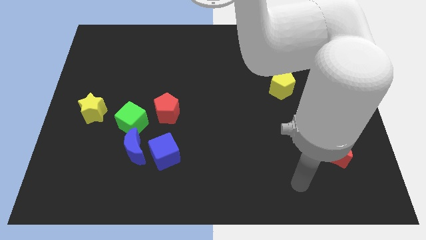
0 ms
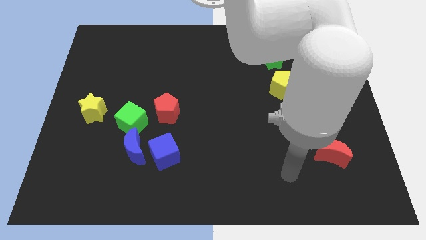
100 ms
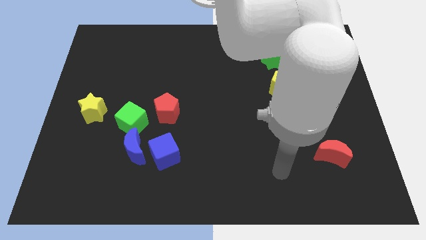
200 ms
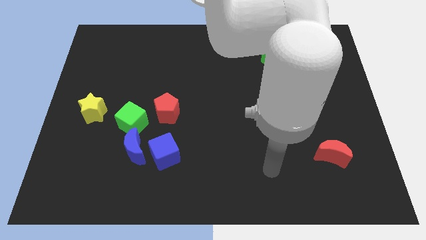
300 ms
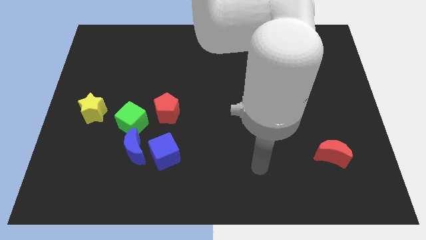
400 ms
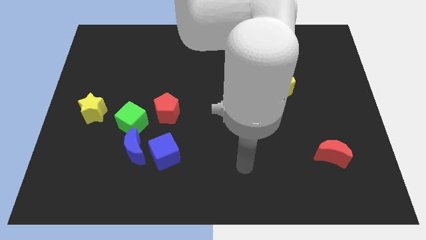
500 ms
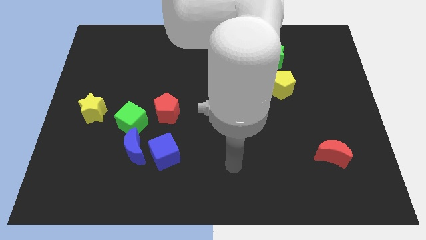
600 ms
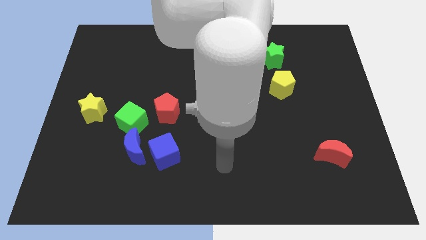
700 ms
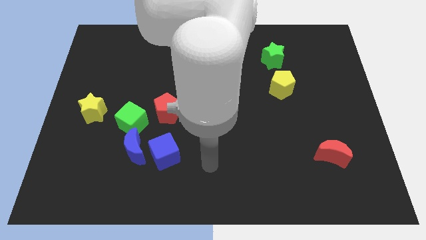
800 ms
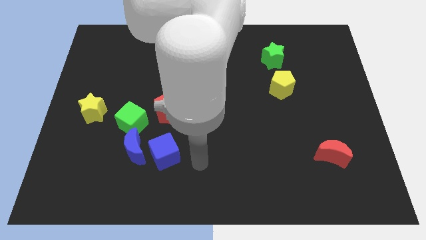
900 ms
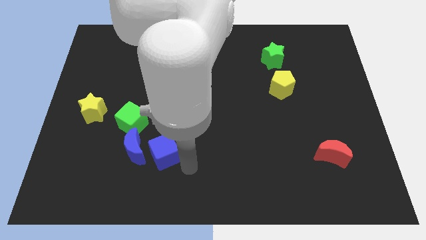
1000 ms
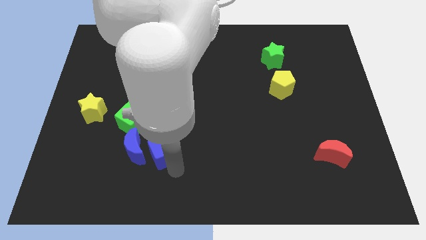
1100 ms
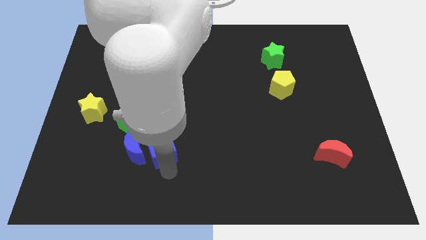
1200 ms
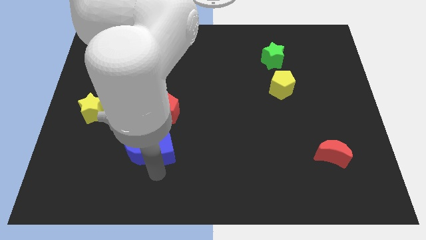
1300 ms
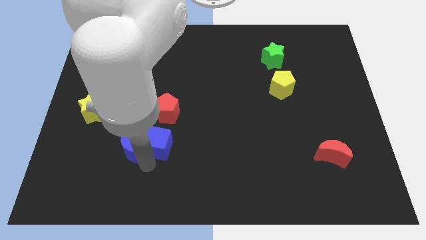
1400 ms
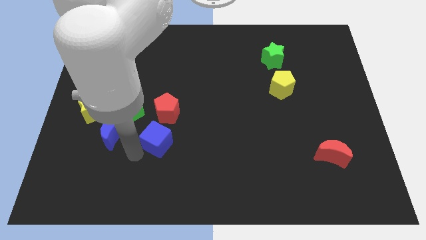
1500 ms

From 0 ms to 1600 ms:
separate the blue cube from the blue moon

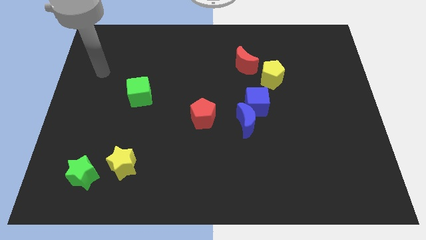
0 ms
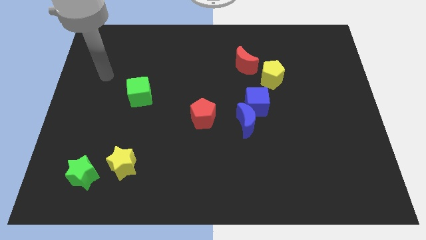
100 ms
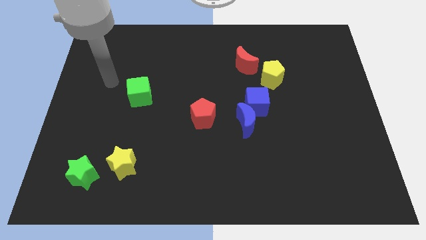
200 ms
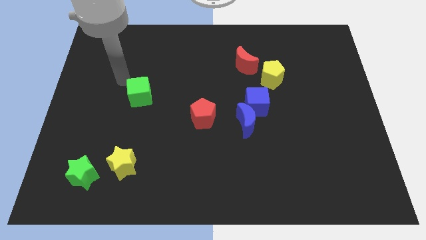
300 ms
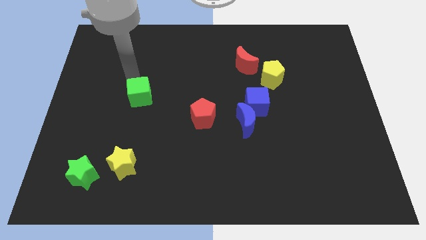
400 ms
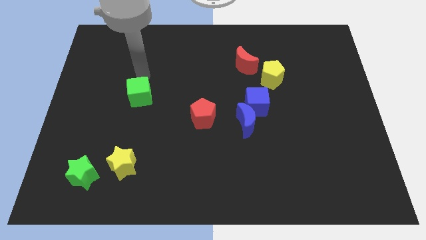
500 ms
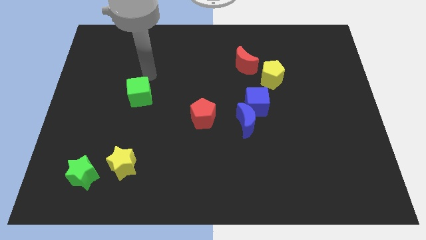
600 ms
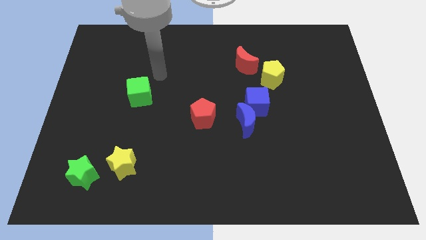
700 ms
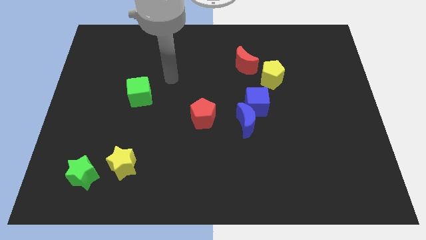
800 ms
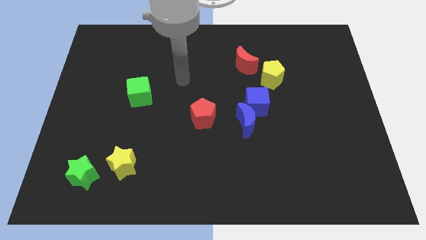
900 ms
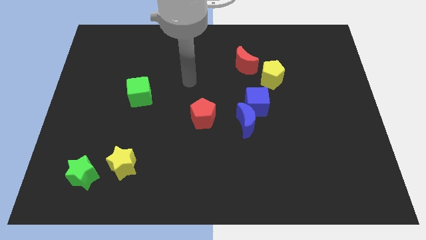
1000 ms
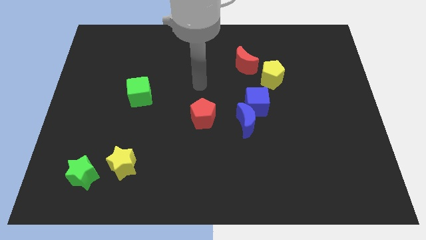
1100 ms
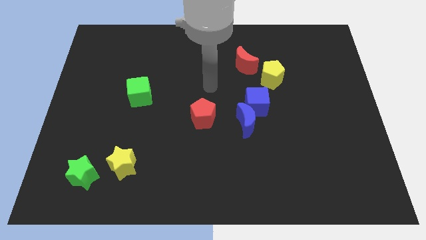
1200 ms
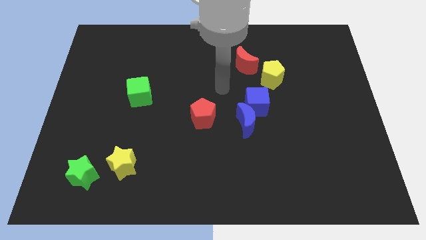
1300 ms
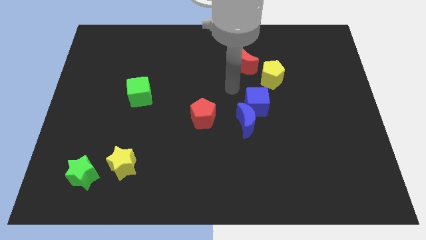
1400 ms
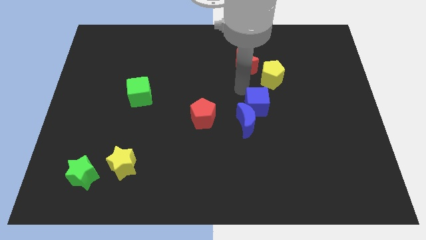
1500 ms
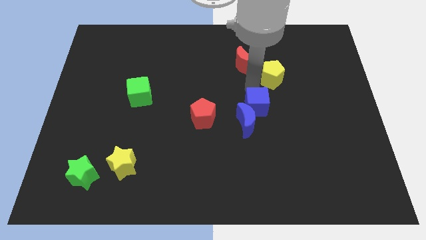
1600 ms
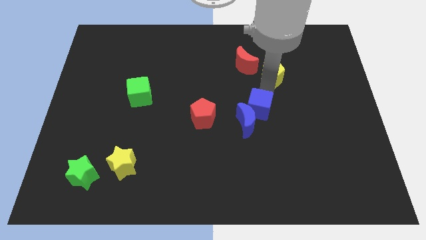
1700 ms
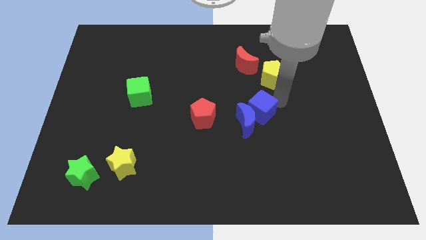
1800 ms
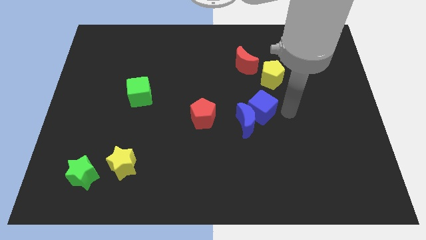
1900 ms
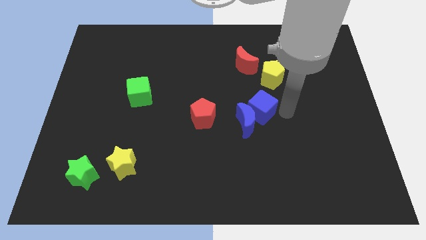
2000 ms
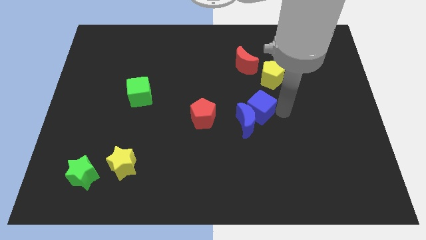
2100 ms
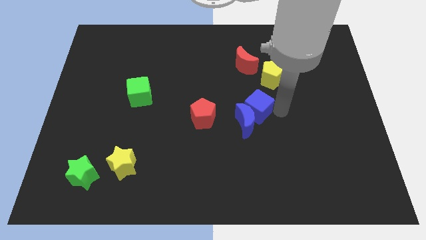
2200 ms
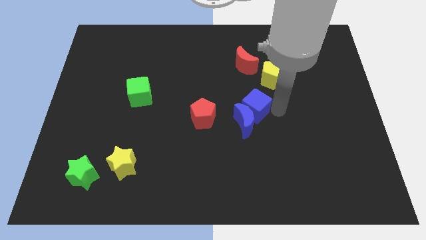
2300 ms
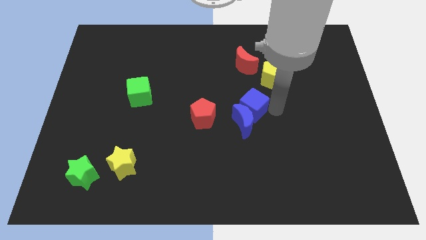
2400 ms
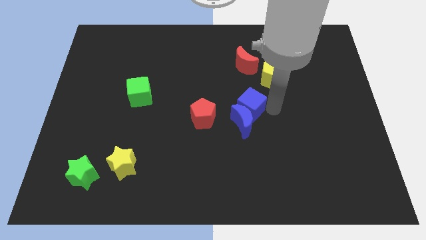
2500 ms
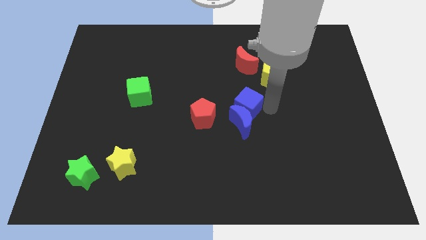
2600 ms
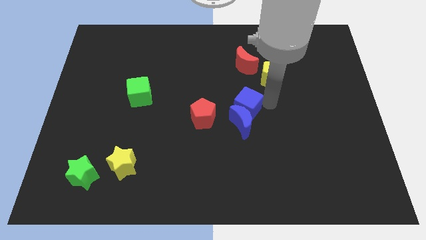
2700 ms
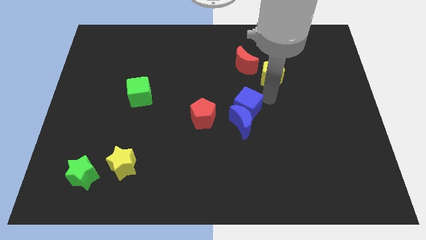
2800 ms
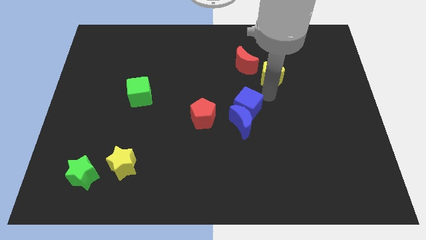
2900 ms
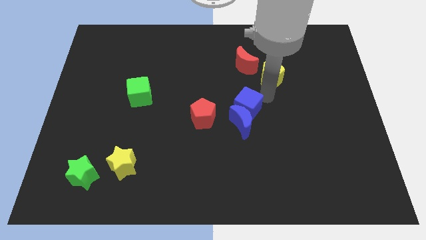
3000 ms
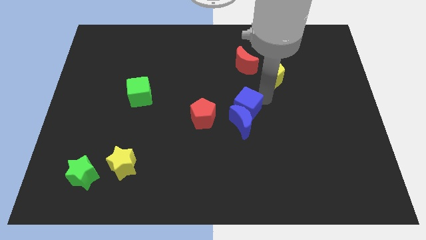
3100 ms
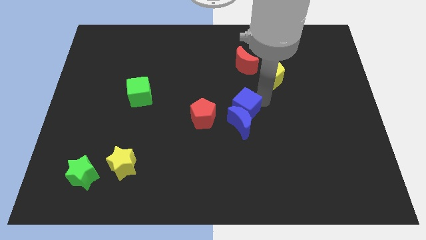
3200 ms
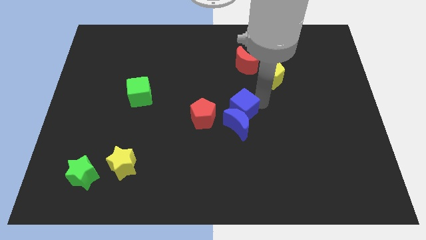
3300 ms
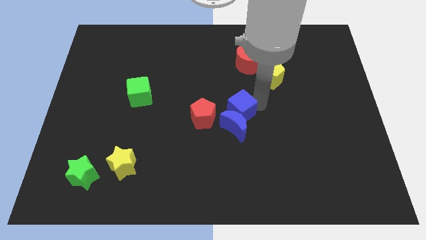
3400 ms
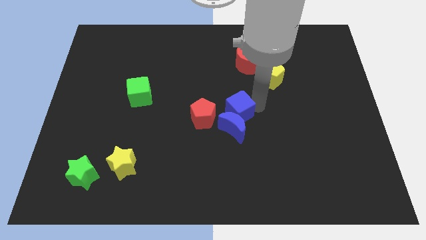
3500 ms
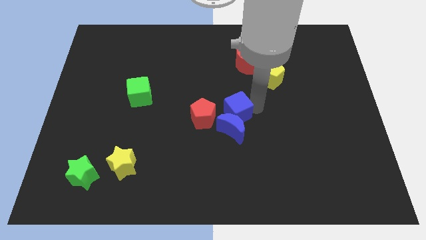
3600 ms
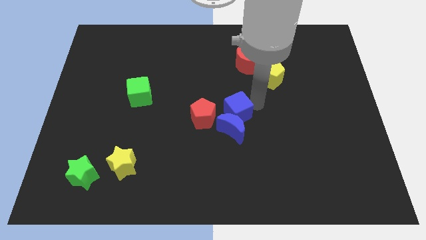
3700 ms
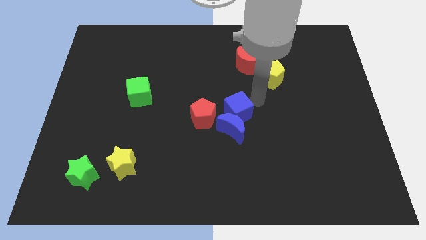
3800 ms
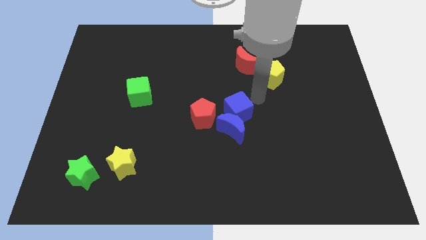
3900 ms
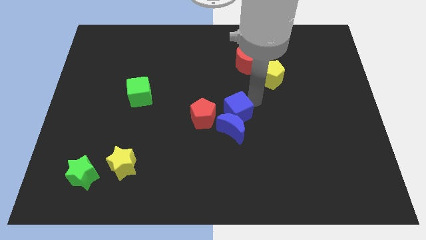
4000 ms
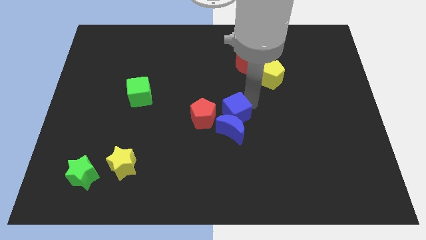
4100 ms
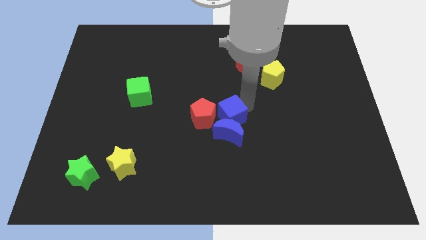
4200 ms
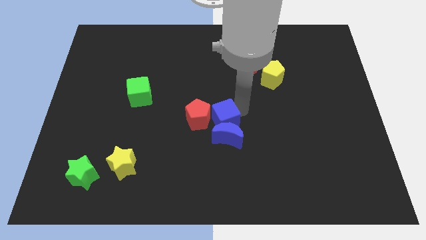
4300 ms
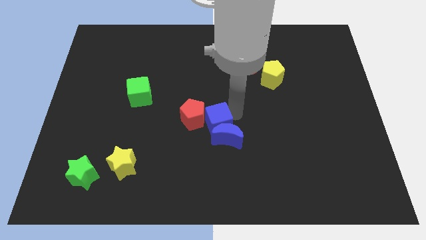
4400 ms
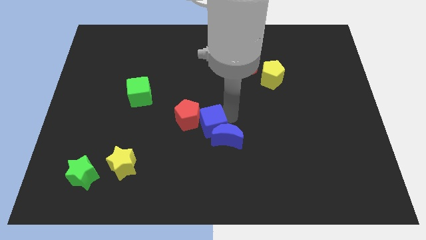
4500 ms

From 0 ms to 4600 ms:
pull the blue cube apart from the blue moon and yellow pentagon

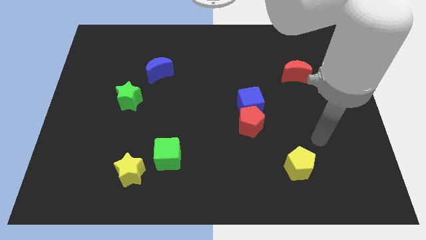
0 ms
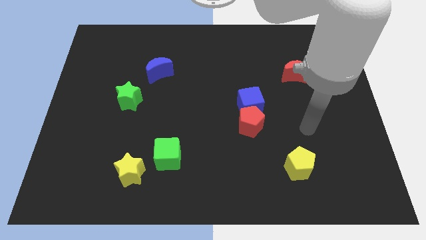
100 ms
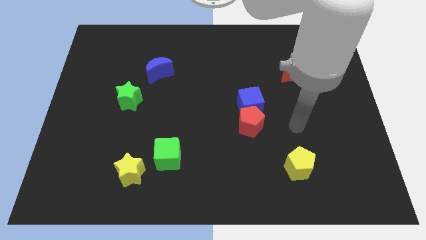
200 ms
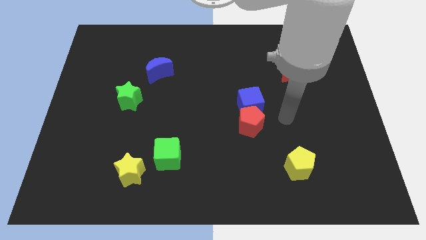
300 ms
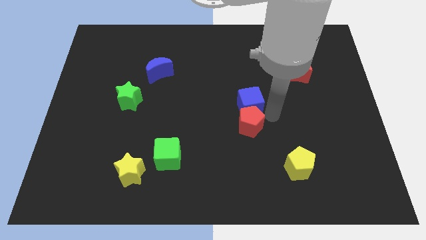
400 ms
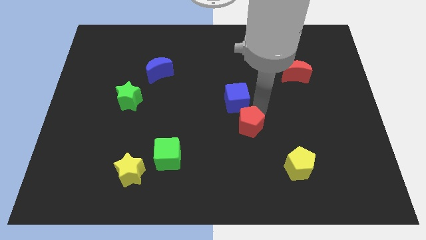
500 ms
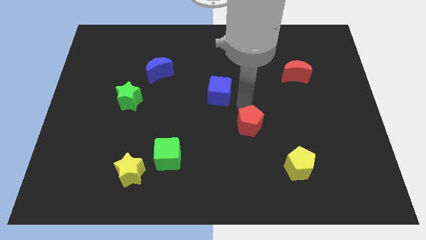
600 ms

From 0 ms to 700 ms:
separate the red pentagon from the blue cube

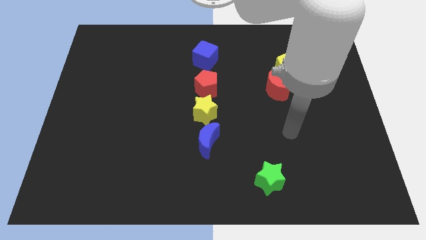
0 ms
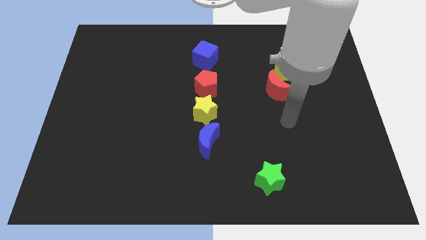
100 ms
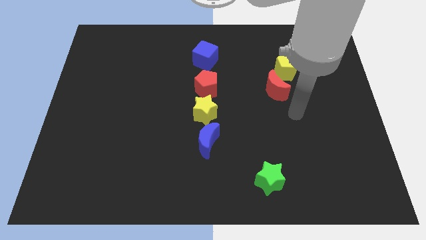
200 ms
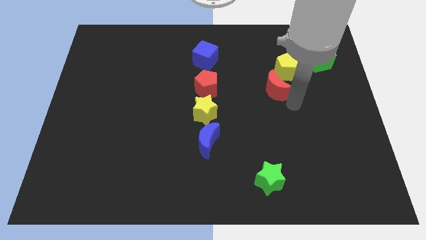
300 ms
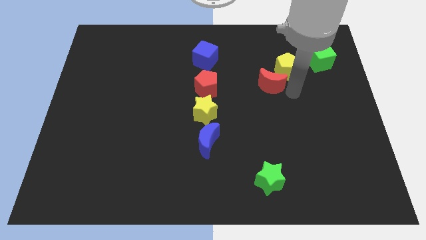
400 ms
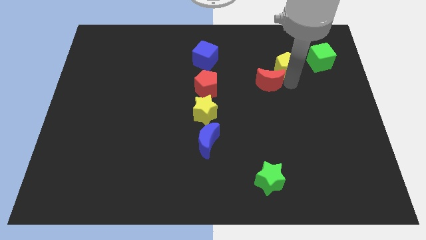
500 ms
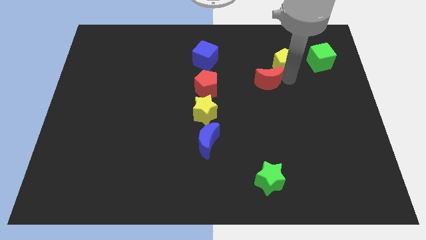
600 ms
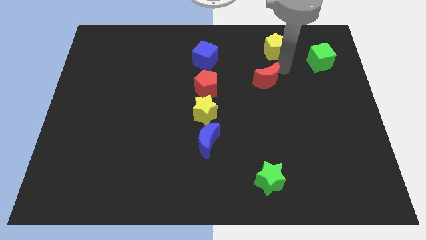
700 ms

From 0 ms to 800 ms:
separate the red moon from the yellow pentagon

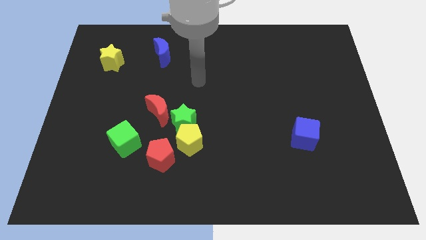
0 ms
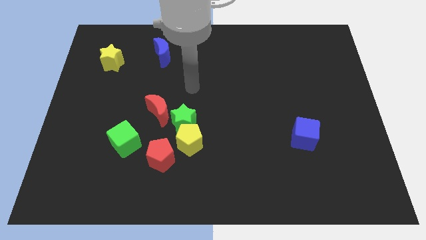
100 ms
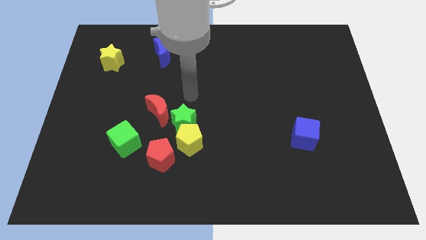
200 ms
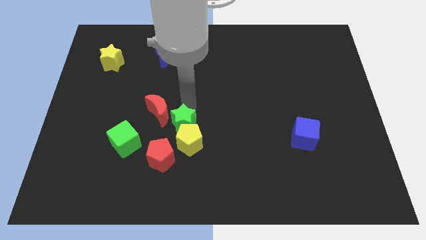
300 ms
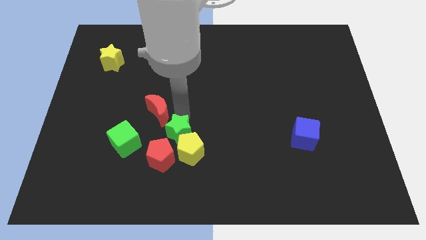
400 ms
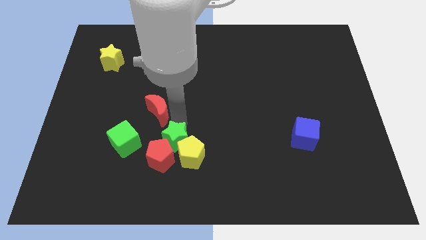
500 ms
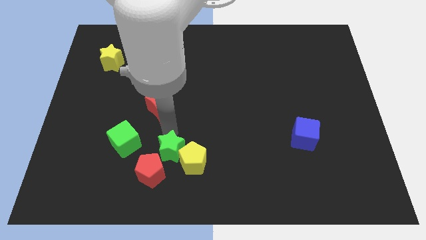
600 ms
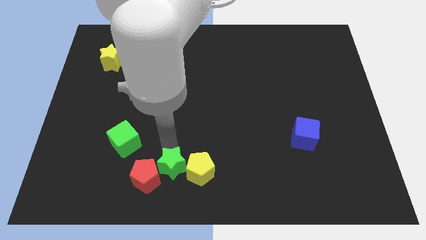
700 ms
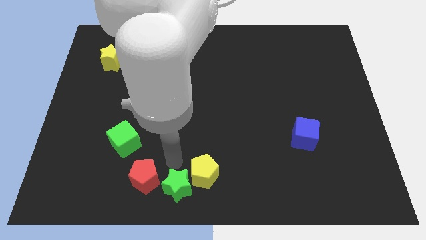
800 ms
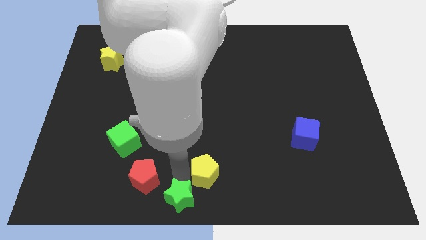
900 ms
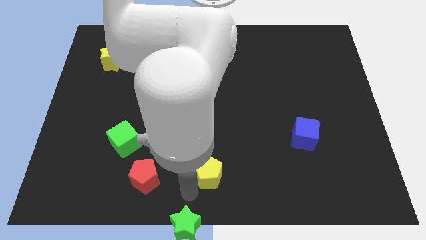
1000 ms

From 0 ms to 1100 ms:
pull the yellow pentagon apart from the green star and red pentagon

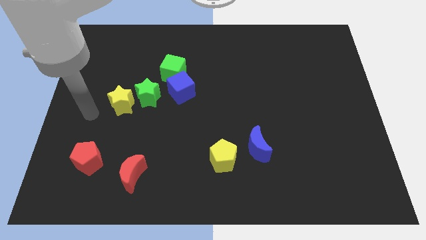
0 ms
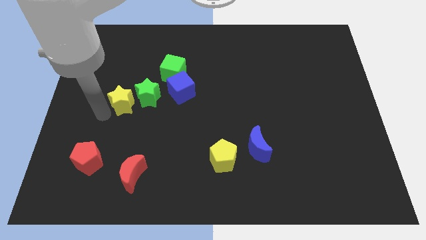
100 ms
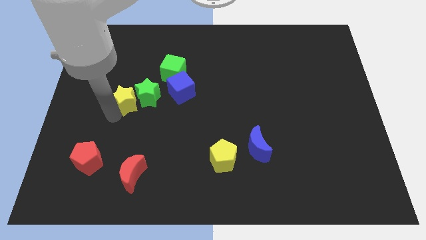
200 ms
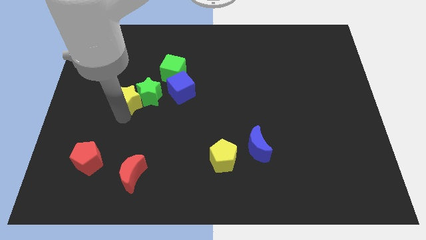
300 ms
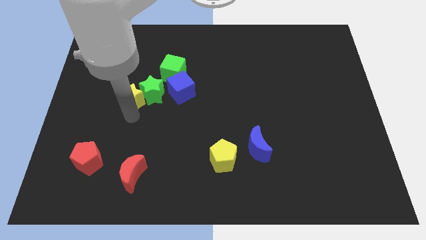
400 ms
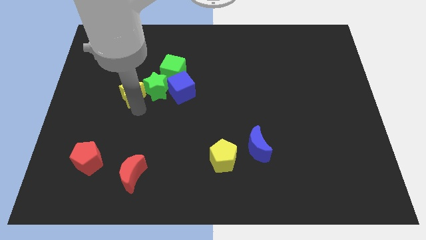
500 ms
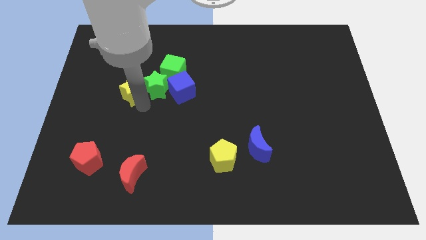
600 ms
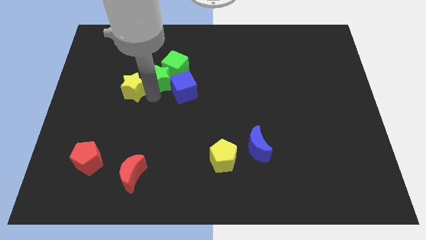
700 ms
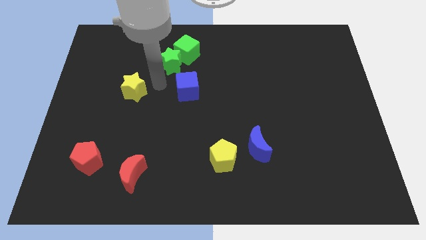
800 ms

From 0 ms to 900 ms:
pull the yellow star apart from the green star
